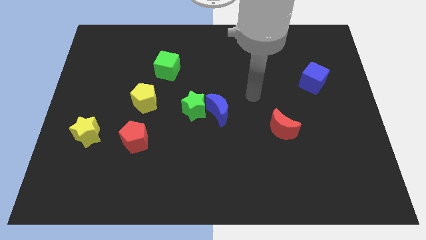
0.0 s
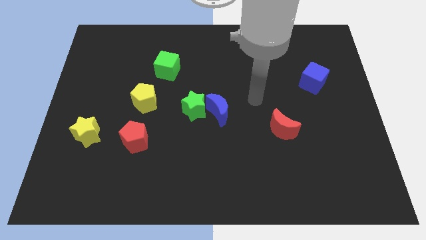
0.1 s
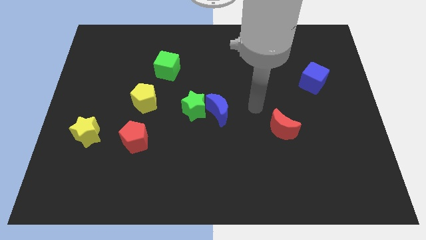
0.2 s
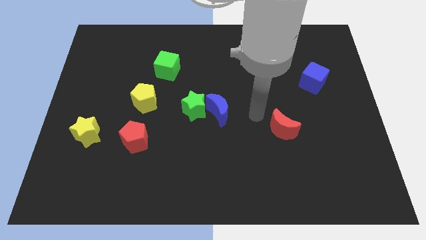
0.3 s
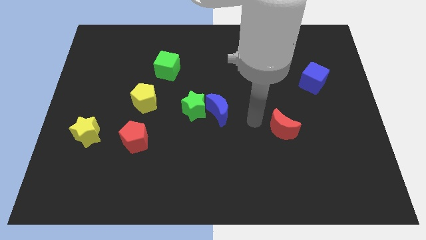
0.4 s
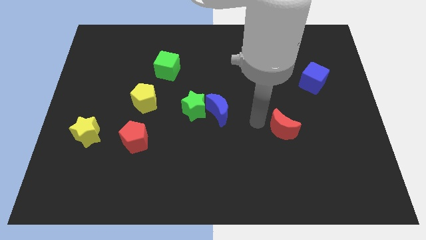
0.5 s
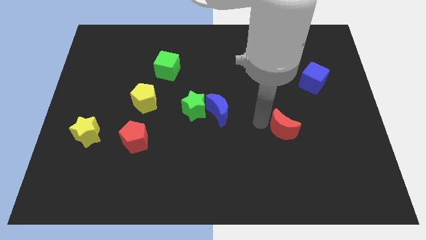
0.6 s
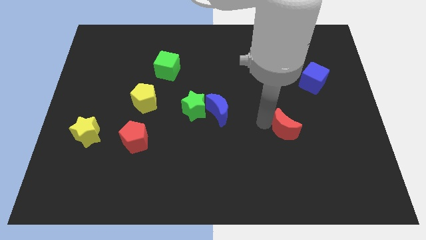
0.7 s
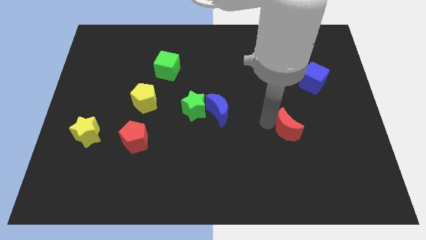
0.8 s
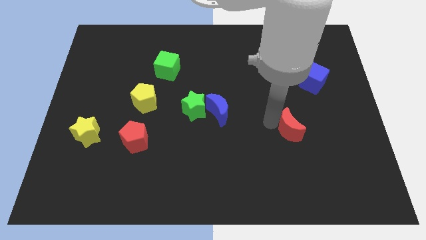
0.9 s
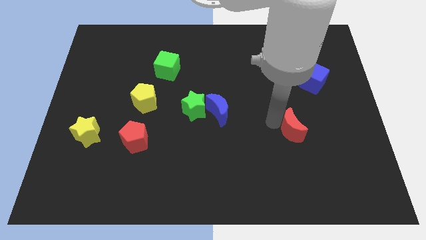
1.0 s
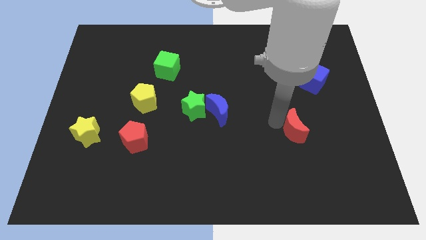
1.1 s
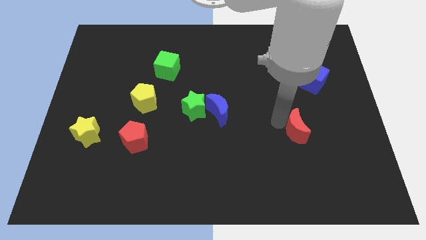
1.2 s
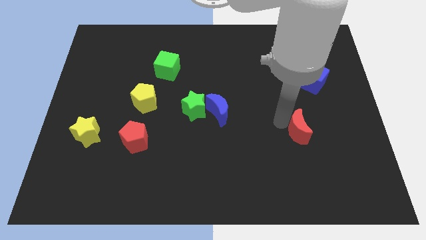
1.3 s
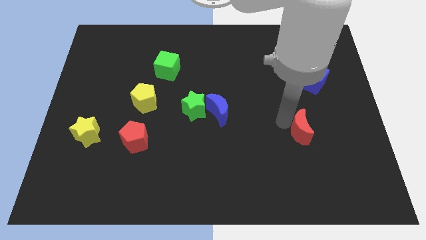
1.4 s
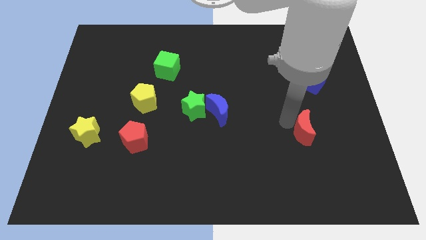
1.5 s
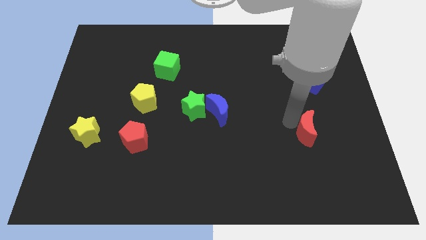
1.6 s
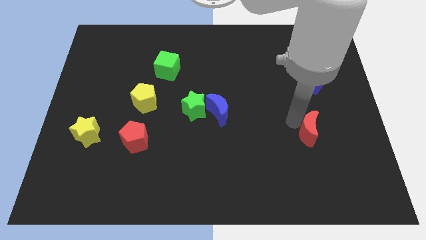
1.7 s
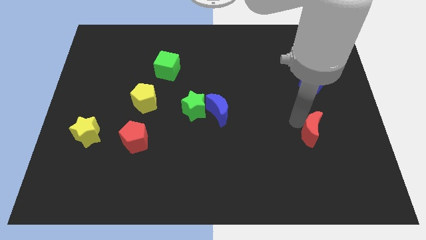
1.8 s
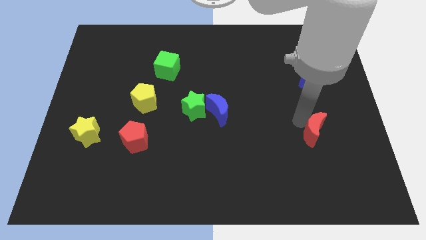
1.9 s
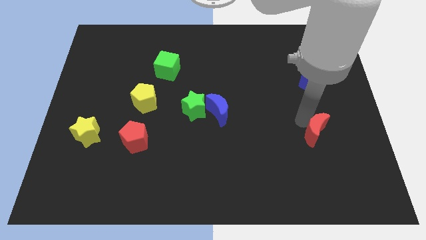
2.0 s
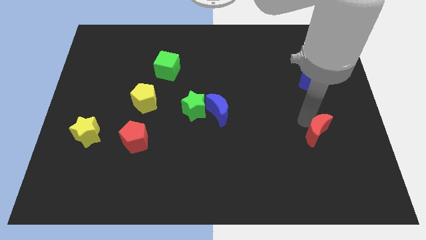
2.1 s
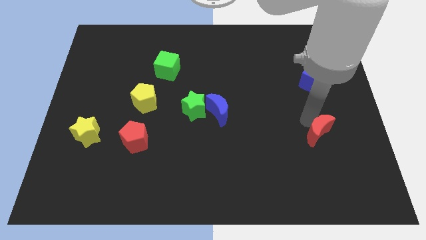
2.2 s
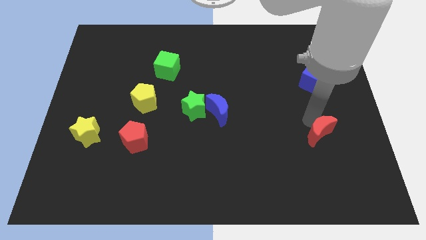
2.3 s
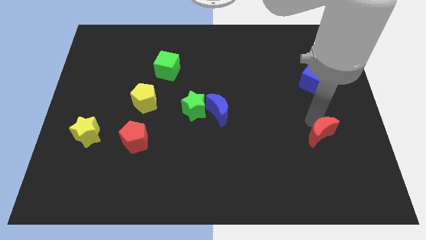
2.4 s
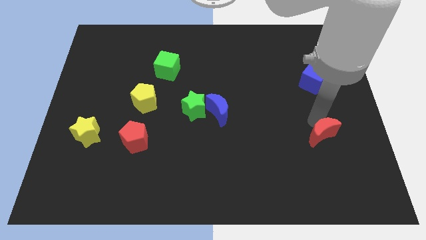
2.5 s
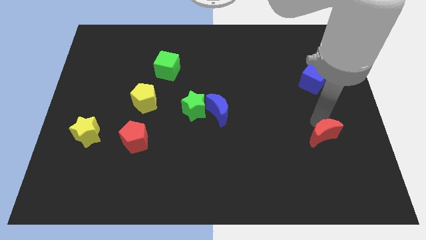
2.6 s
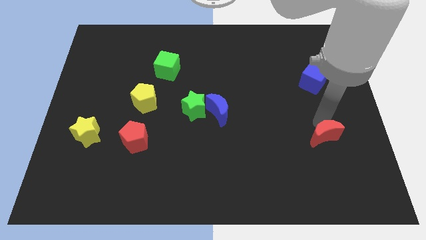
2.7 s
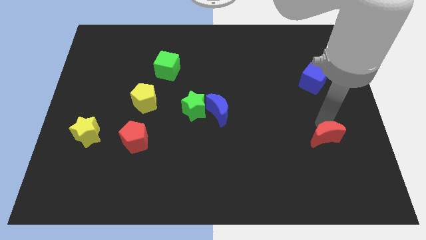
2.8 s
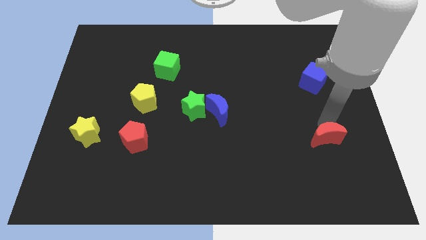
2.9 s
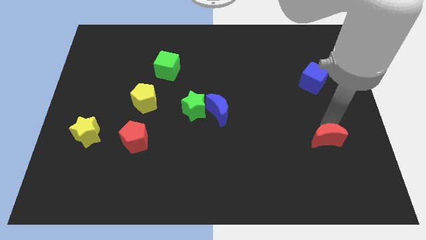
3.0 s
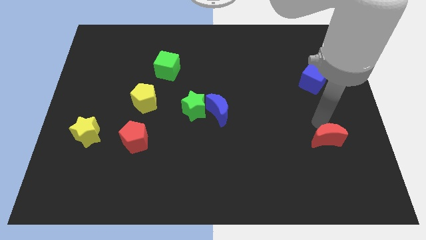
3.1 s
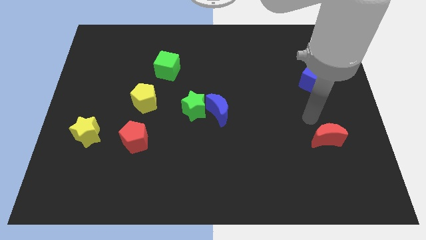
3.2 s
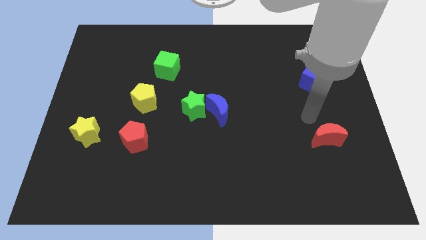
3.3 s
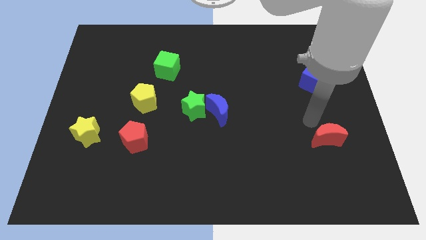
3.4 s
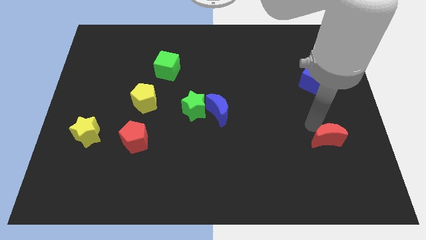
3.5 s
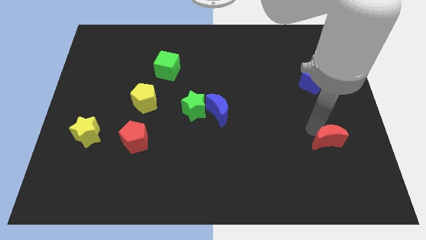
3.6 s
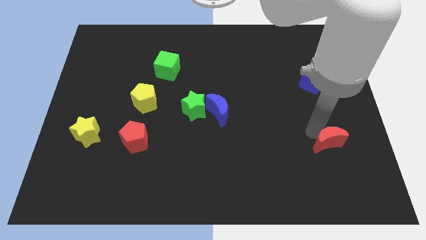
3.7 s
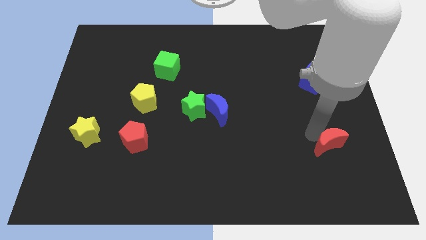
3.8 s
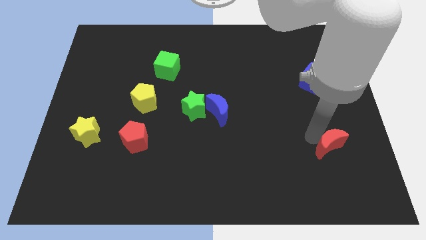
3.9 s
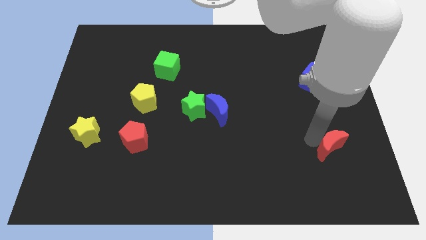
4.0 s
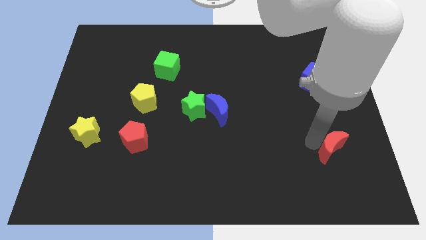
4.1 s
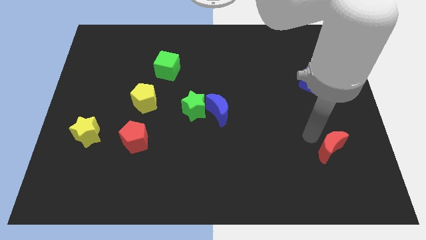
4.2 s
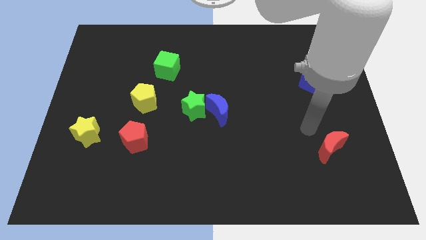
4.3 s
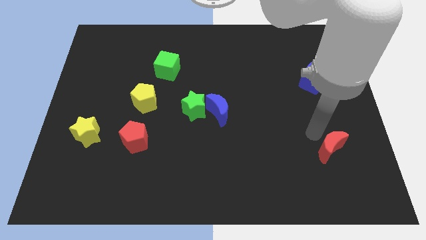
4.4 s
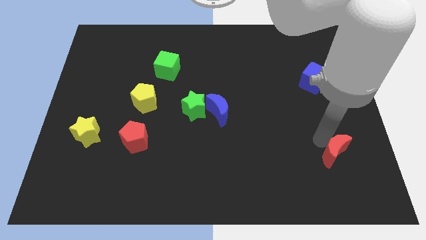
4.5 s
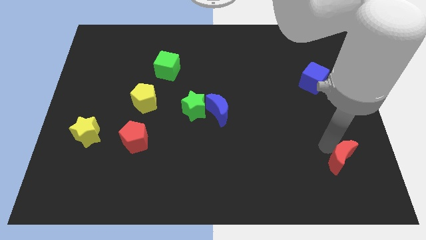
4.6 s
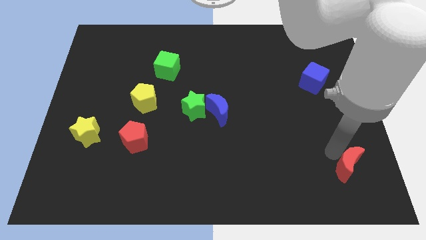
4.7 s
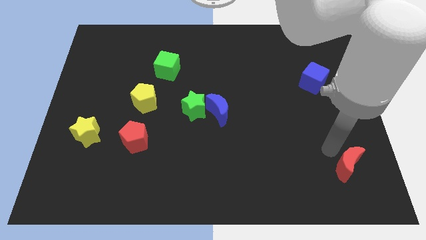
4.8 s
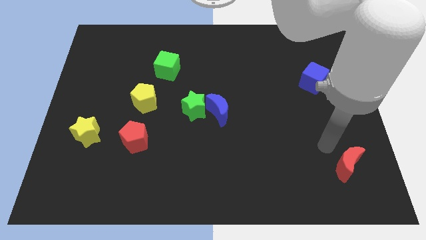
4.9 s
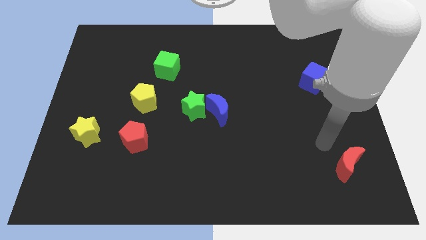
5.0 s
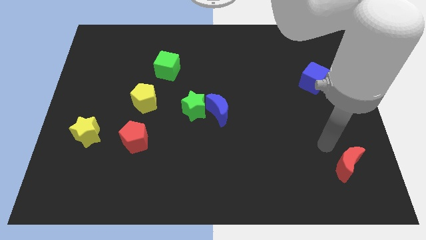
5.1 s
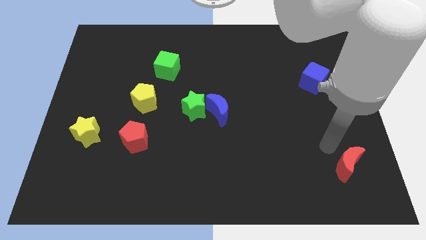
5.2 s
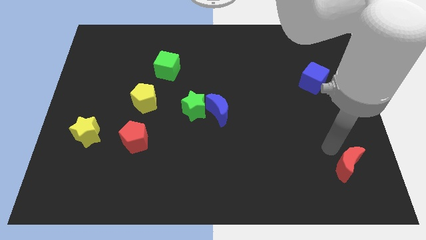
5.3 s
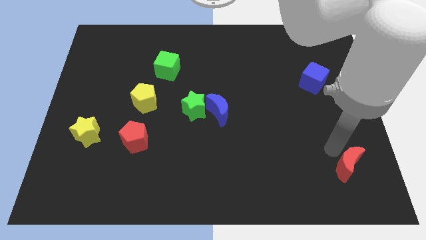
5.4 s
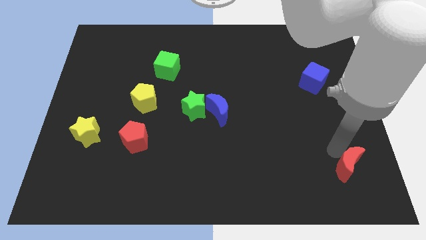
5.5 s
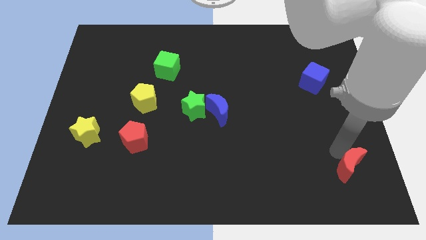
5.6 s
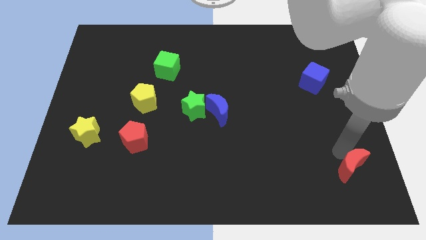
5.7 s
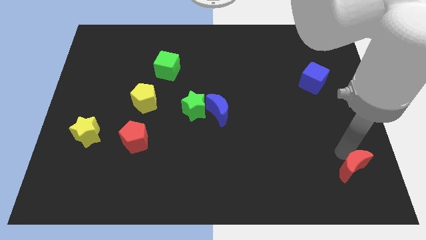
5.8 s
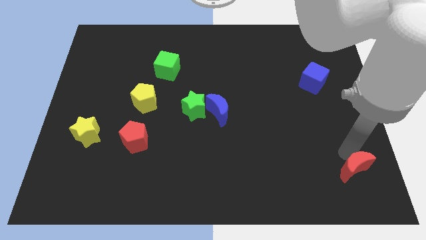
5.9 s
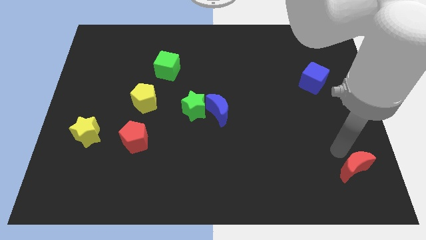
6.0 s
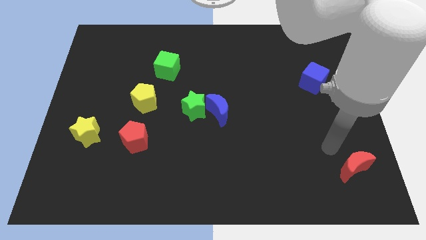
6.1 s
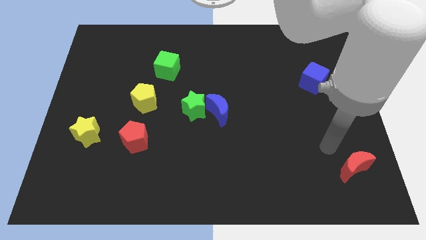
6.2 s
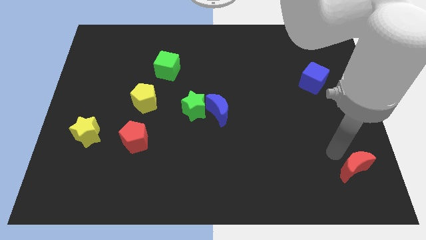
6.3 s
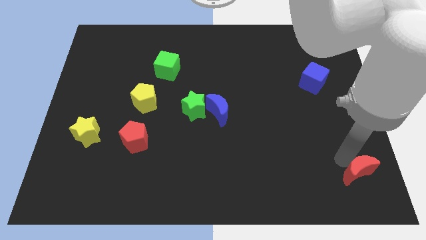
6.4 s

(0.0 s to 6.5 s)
put the red moon to the bottom right
